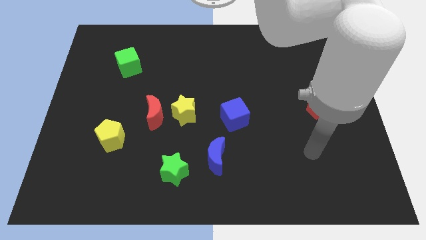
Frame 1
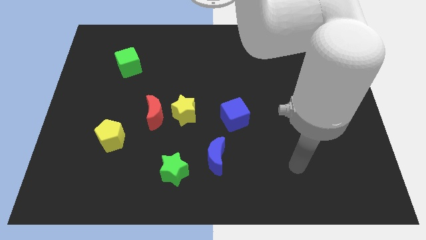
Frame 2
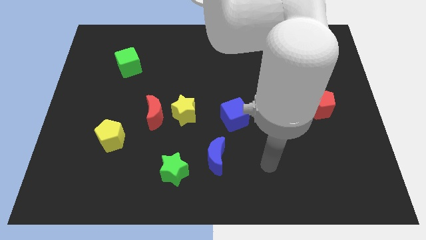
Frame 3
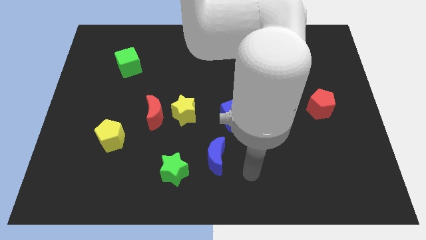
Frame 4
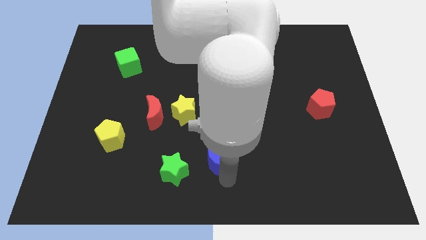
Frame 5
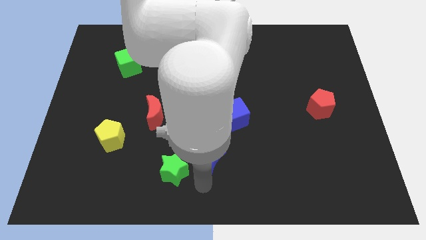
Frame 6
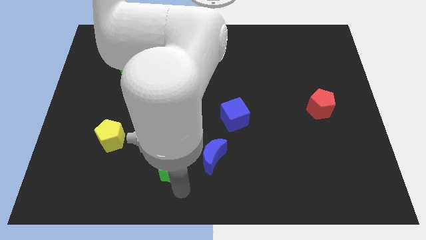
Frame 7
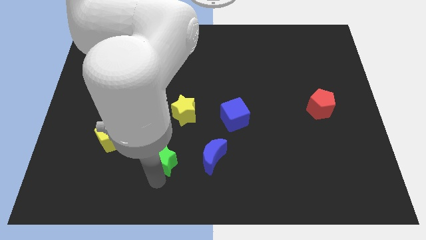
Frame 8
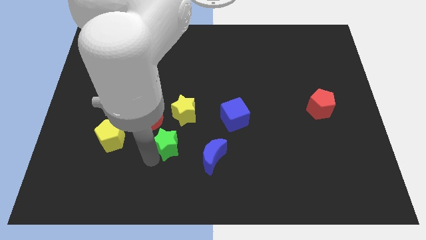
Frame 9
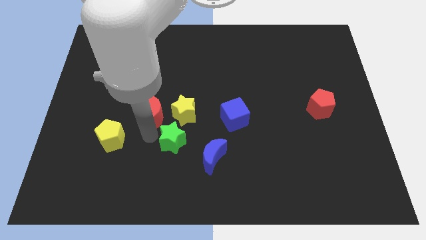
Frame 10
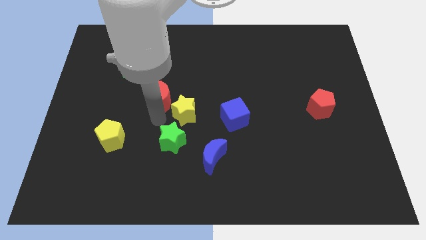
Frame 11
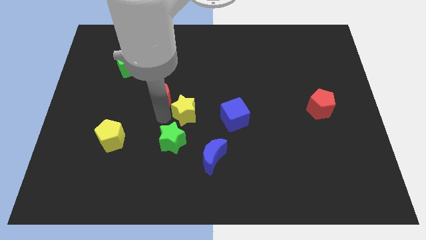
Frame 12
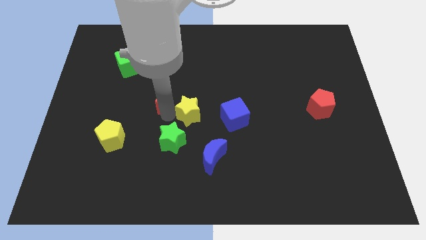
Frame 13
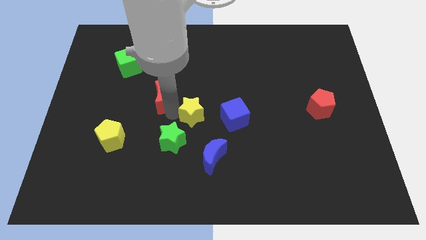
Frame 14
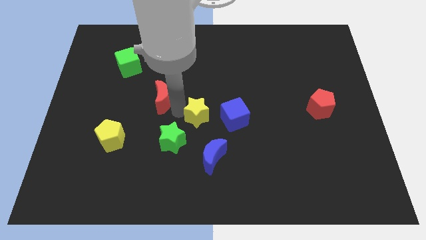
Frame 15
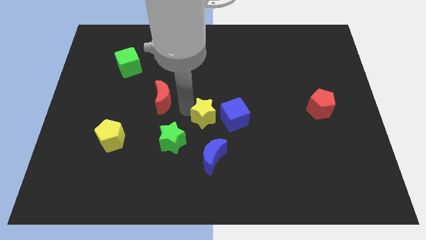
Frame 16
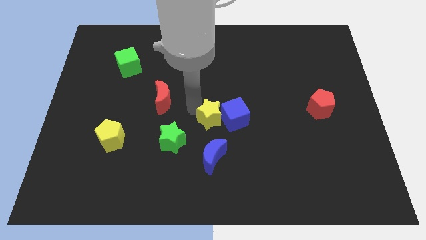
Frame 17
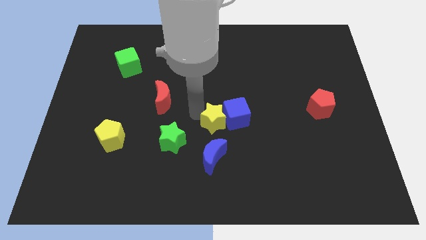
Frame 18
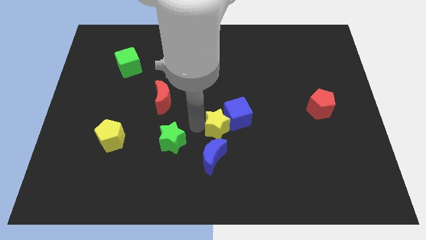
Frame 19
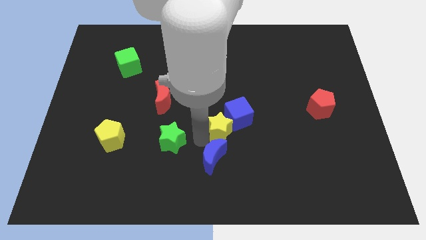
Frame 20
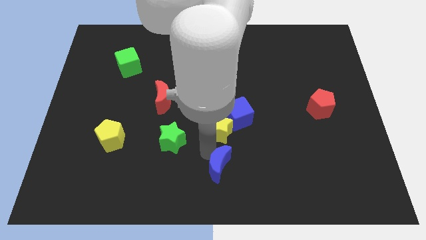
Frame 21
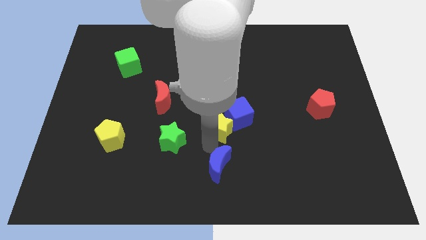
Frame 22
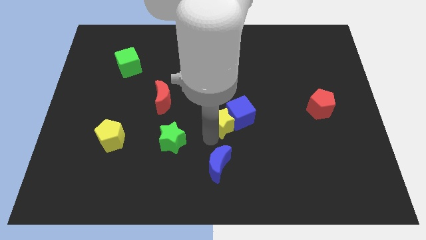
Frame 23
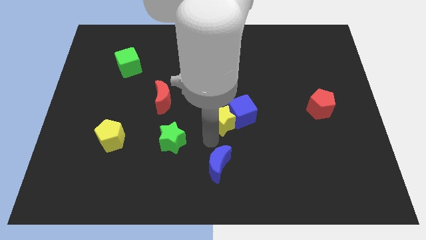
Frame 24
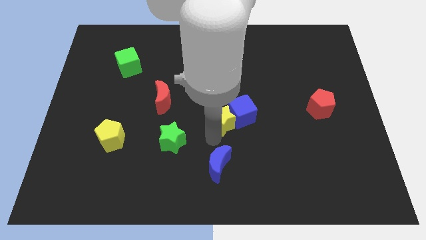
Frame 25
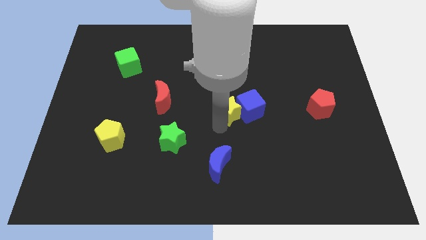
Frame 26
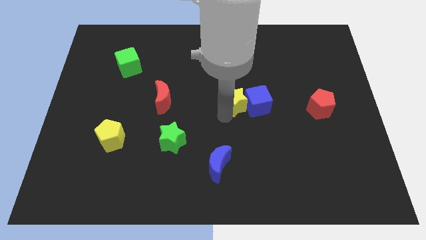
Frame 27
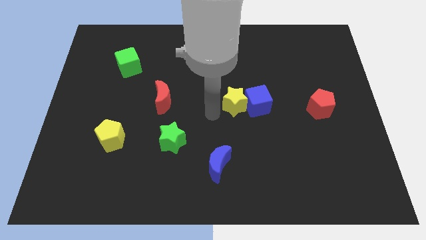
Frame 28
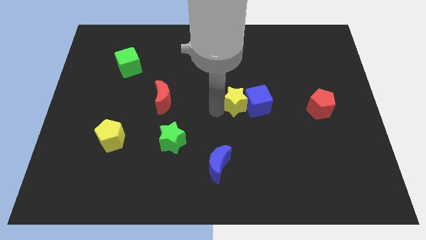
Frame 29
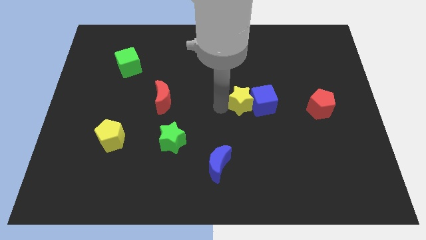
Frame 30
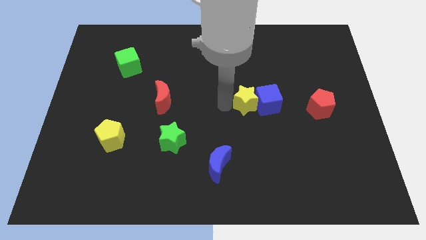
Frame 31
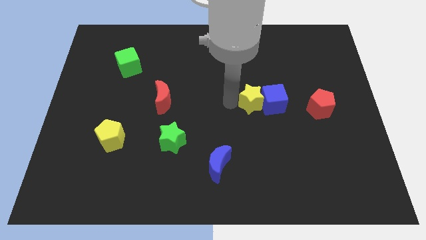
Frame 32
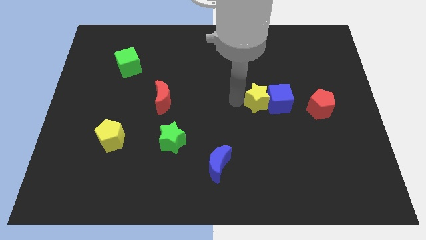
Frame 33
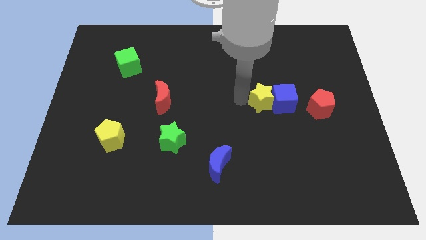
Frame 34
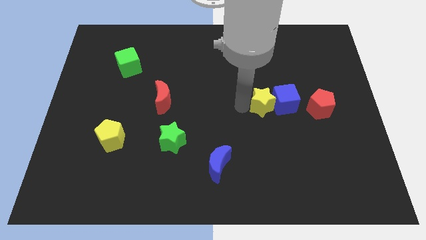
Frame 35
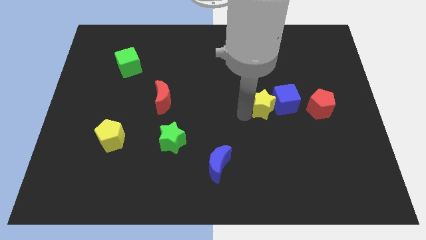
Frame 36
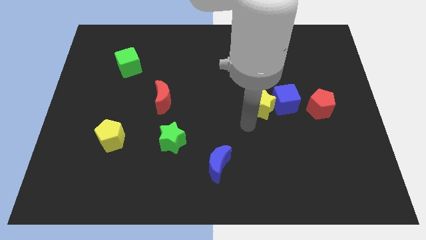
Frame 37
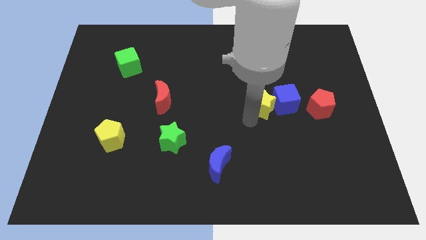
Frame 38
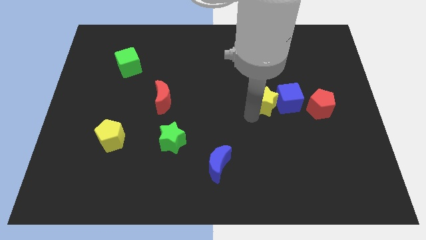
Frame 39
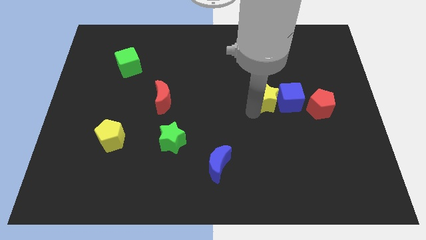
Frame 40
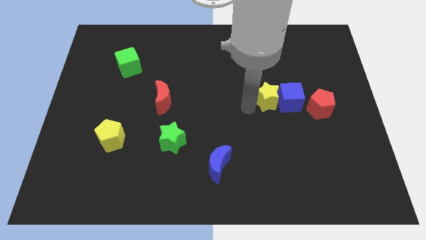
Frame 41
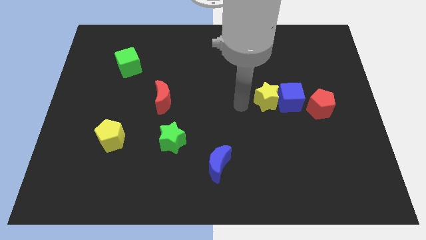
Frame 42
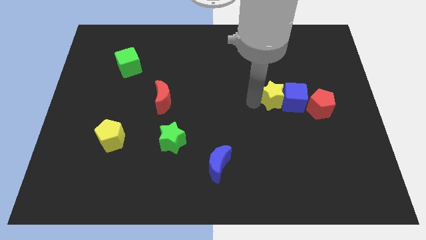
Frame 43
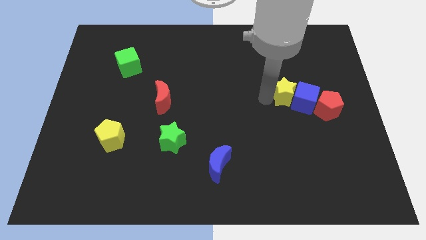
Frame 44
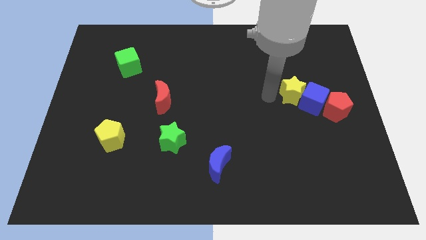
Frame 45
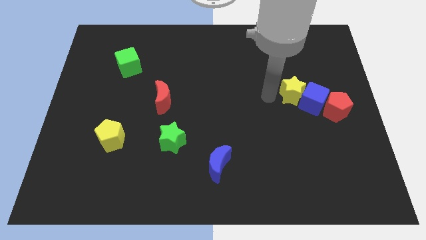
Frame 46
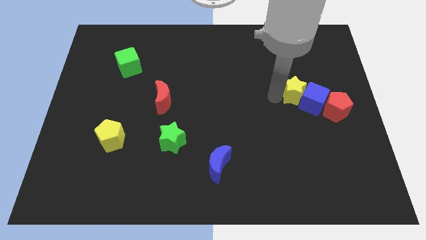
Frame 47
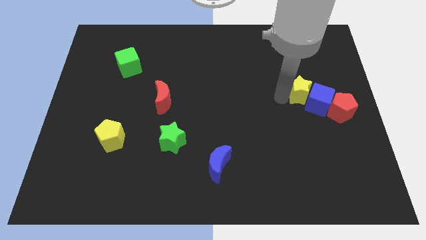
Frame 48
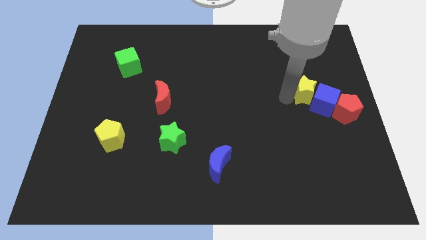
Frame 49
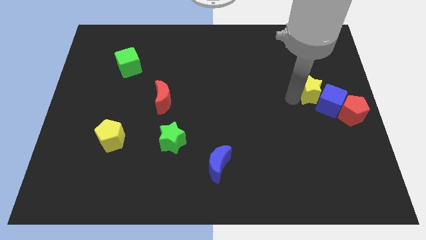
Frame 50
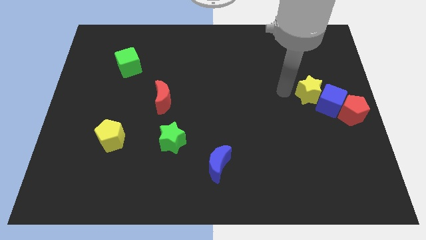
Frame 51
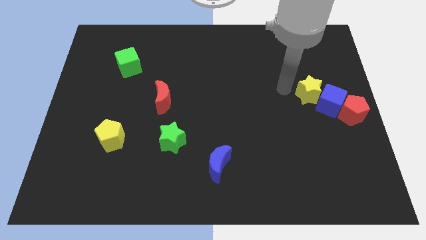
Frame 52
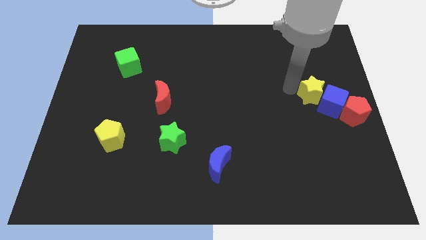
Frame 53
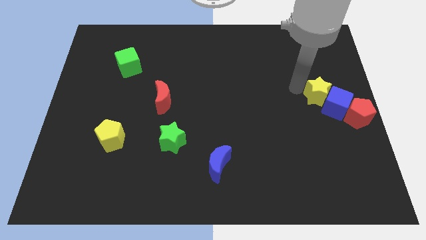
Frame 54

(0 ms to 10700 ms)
slide the yellow star to the right side
